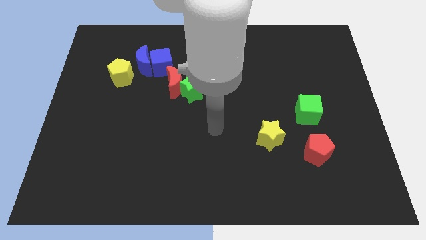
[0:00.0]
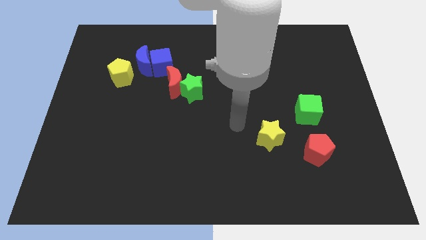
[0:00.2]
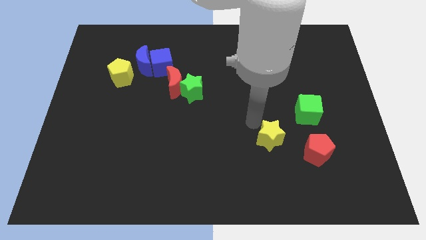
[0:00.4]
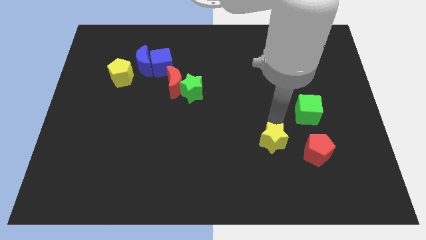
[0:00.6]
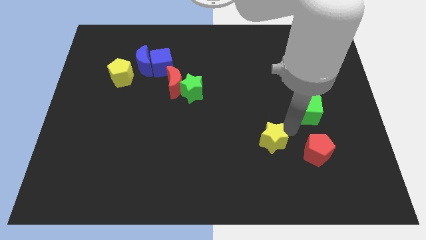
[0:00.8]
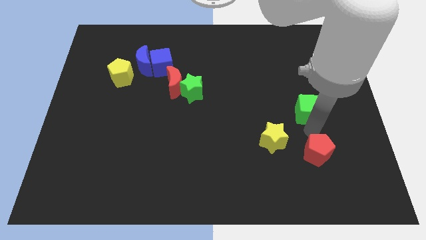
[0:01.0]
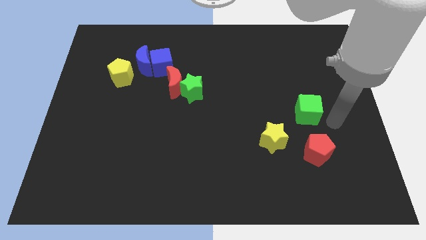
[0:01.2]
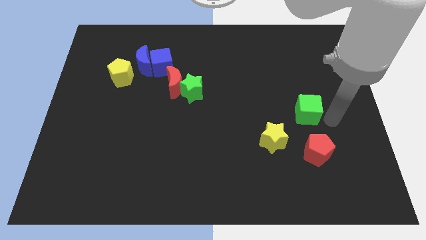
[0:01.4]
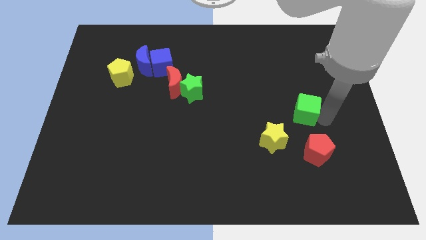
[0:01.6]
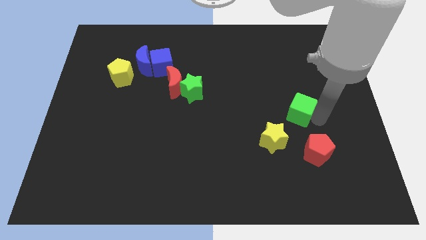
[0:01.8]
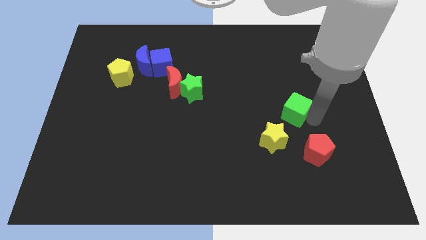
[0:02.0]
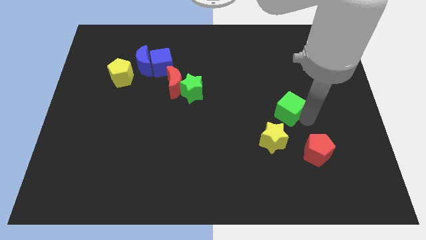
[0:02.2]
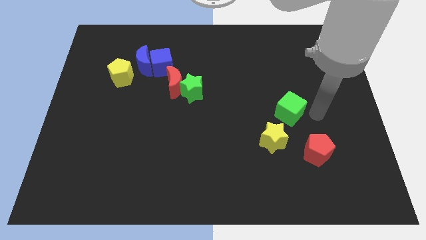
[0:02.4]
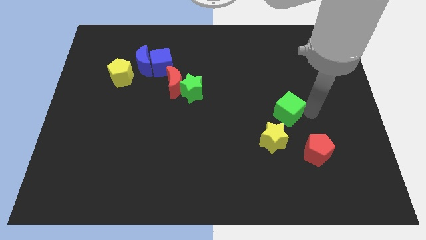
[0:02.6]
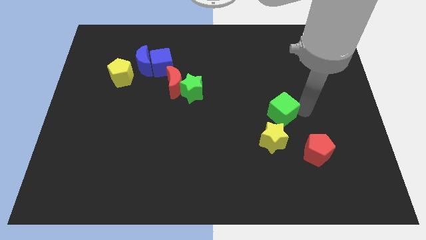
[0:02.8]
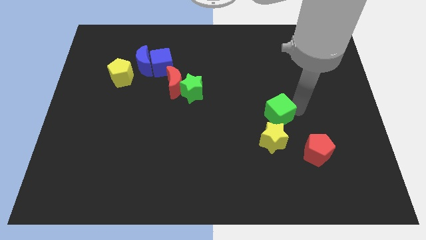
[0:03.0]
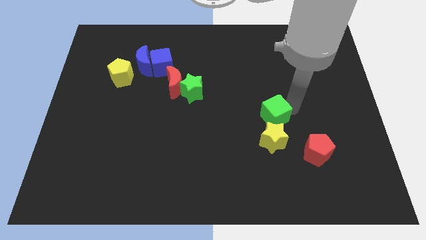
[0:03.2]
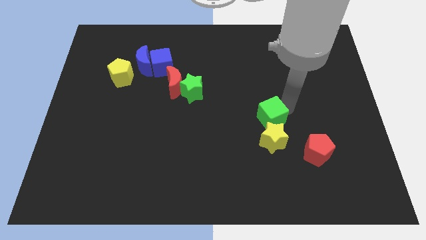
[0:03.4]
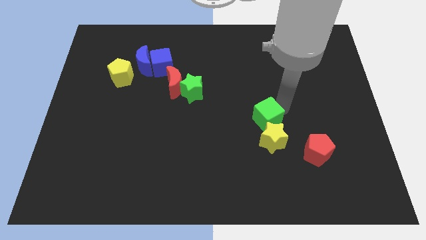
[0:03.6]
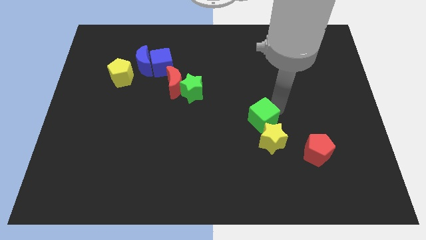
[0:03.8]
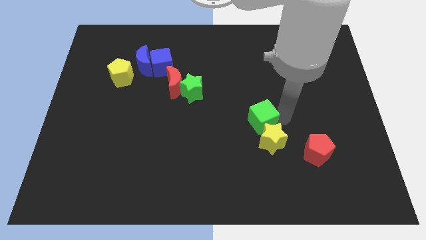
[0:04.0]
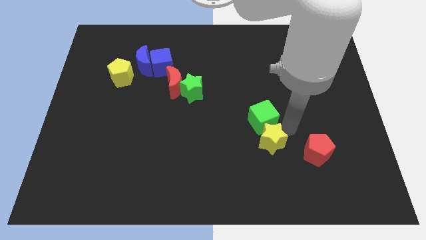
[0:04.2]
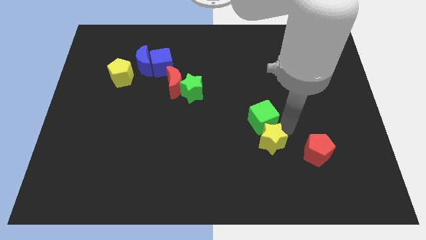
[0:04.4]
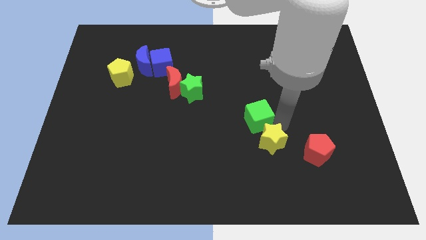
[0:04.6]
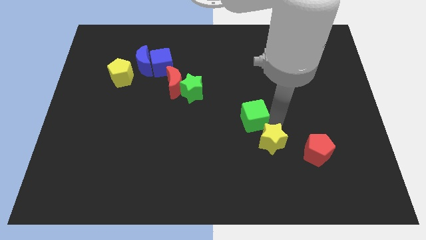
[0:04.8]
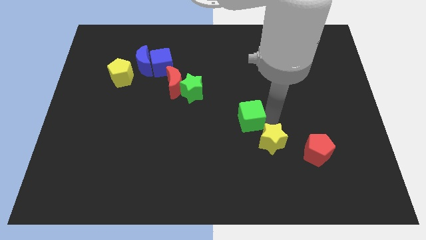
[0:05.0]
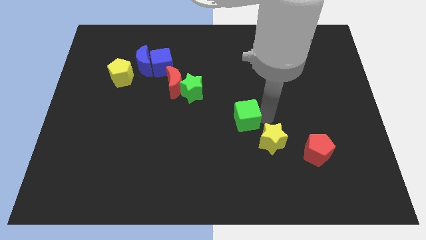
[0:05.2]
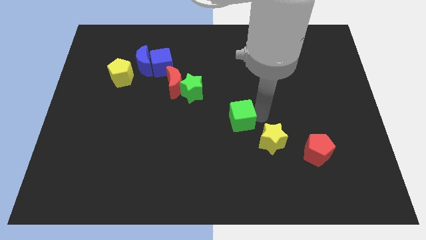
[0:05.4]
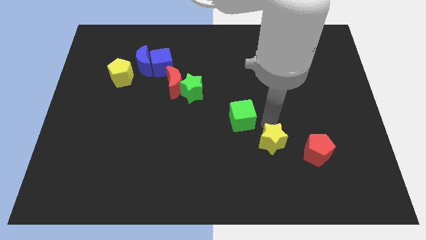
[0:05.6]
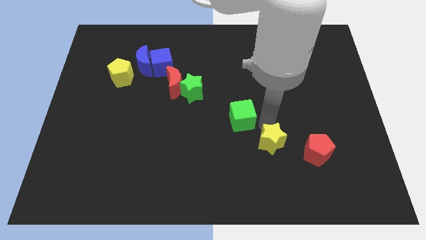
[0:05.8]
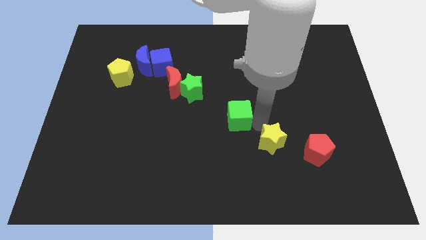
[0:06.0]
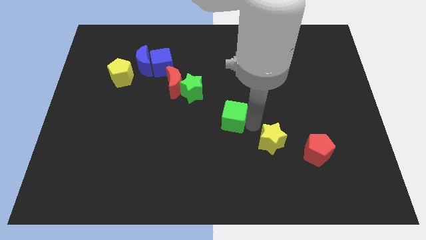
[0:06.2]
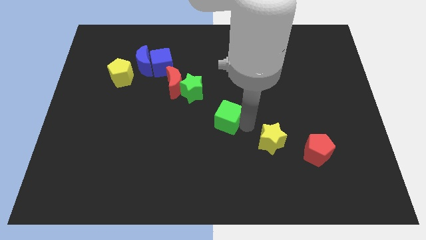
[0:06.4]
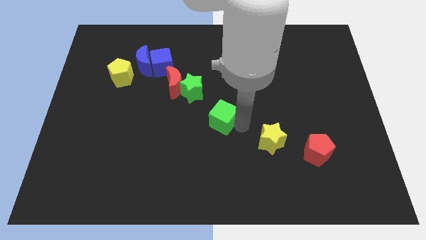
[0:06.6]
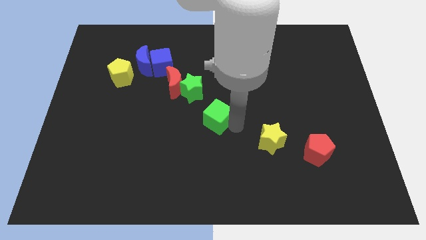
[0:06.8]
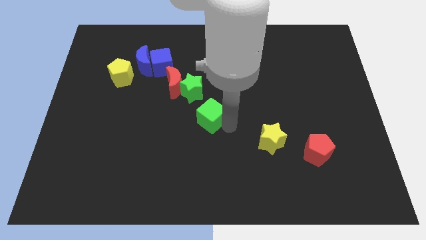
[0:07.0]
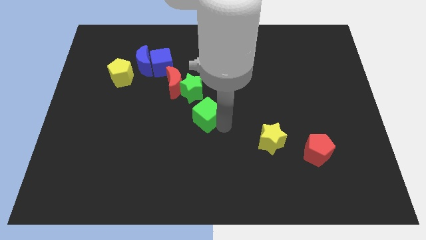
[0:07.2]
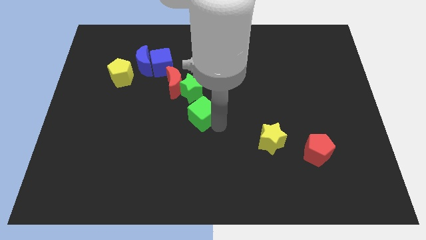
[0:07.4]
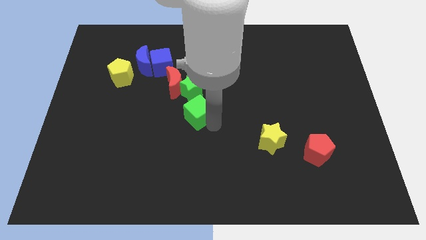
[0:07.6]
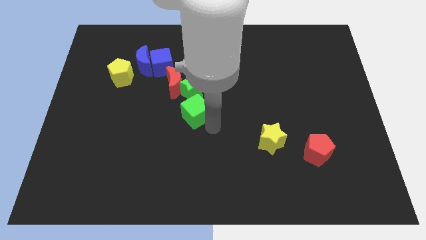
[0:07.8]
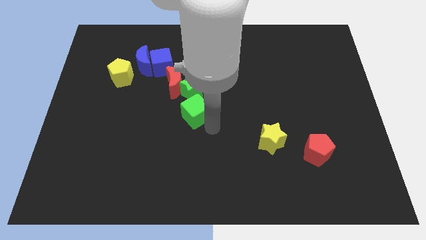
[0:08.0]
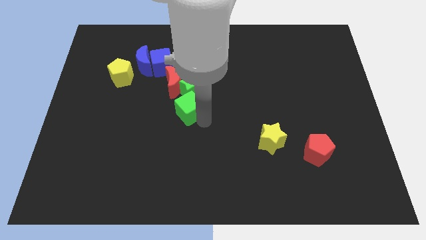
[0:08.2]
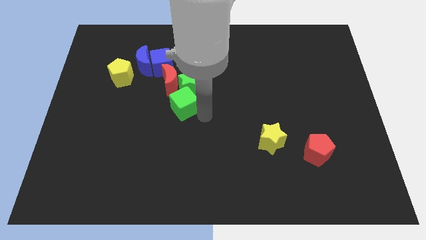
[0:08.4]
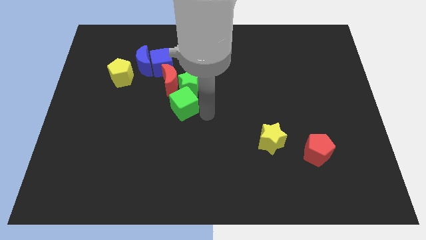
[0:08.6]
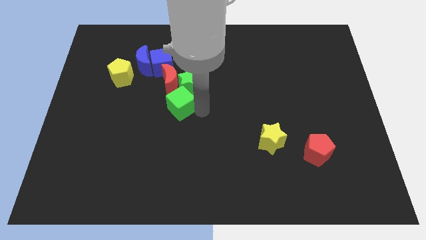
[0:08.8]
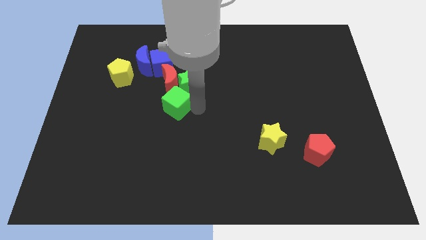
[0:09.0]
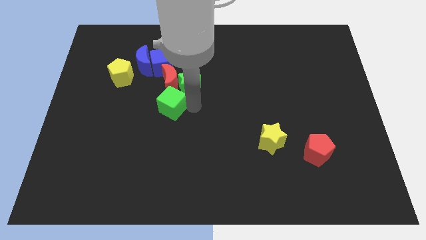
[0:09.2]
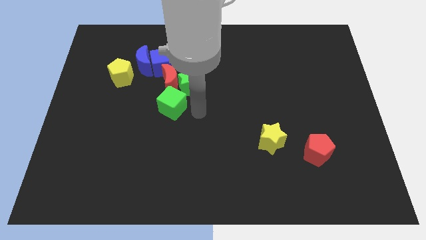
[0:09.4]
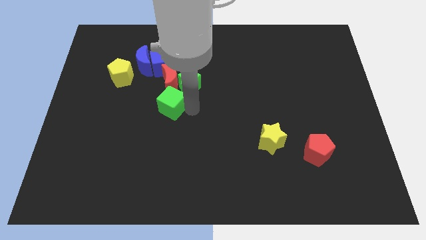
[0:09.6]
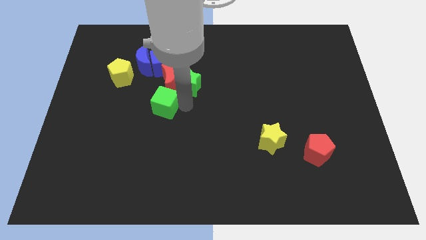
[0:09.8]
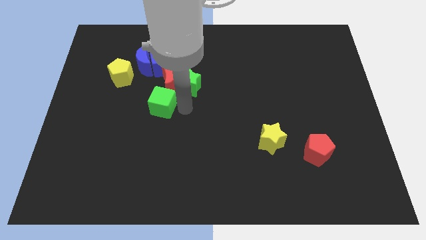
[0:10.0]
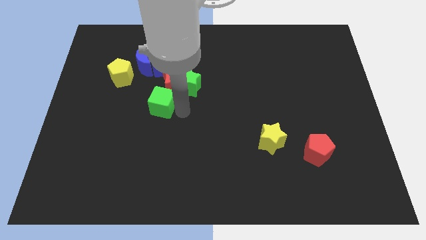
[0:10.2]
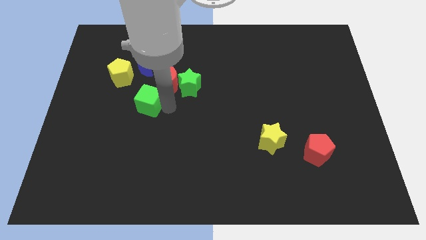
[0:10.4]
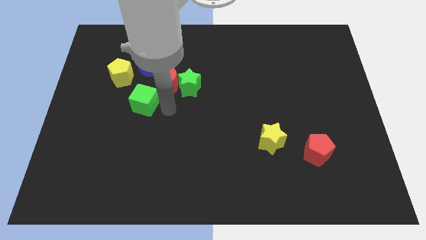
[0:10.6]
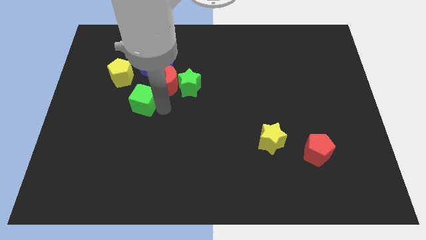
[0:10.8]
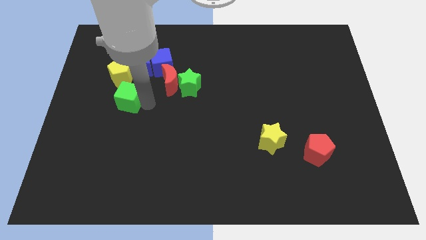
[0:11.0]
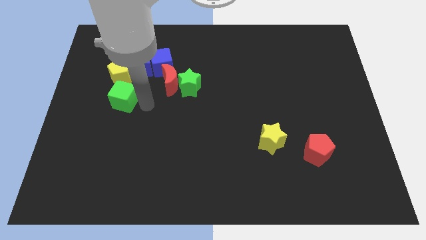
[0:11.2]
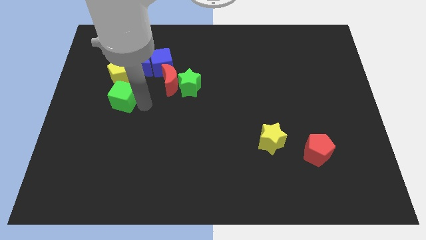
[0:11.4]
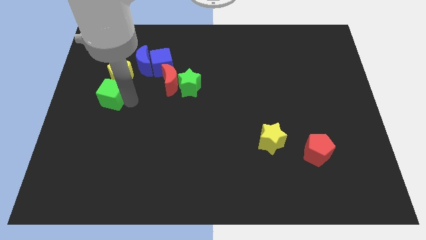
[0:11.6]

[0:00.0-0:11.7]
slide the green cube to the bottom left side of the yellow pentagon

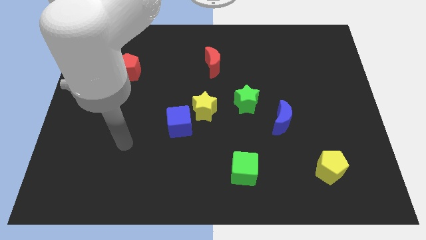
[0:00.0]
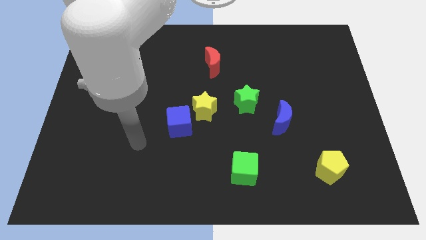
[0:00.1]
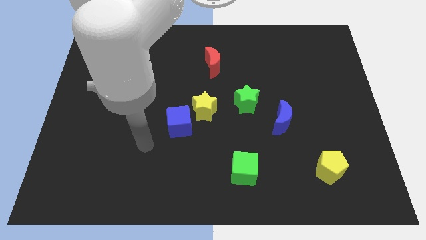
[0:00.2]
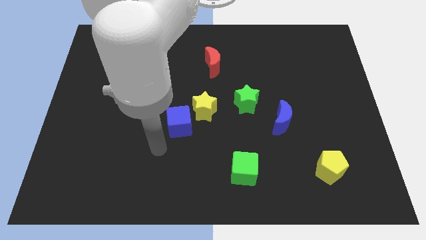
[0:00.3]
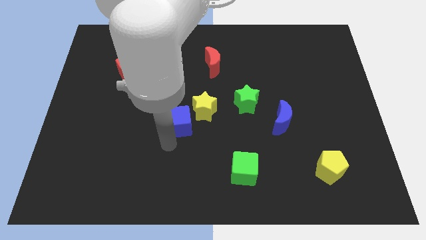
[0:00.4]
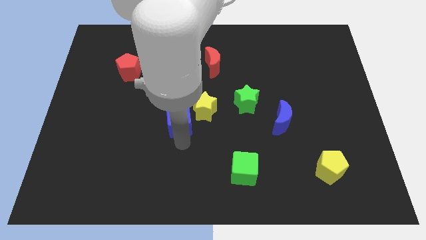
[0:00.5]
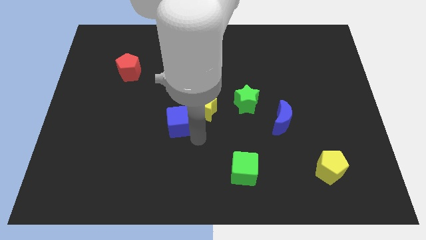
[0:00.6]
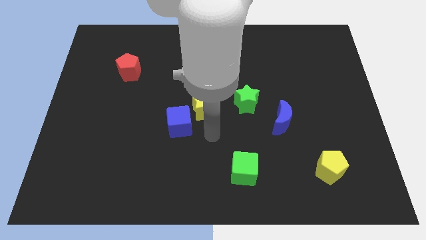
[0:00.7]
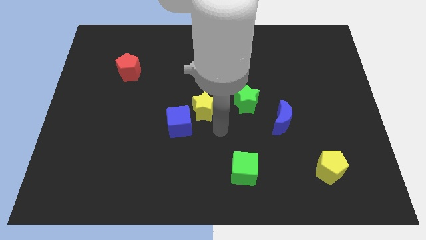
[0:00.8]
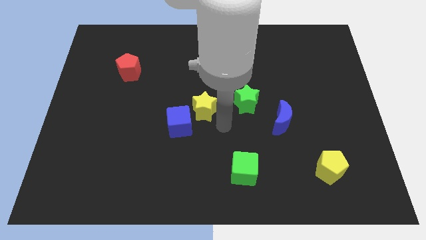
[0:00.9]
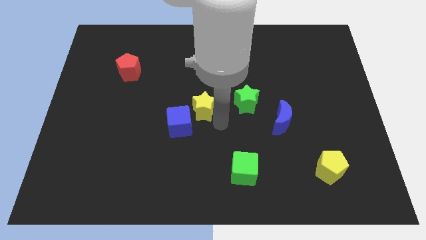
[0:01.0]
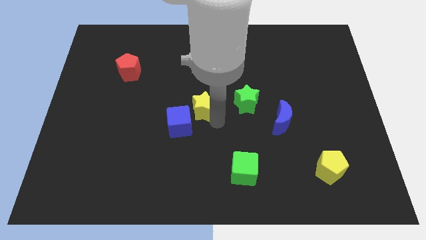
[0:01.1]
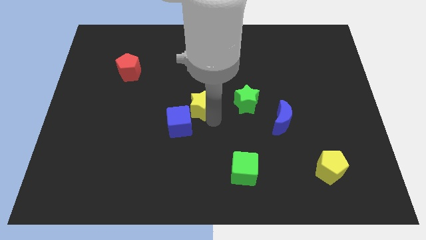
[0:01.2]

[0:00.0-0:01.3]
put the yellow star above the blue cube
